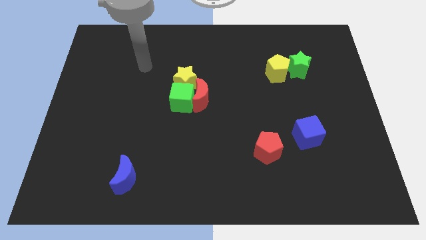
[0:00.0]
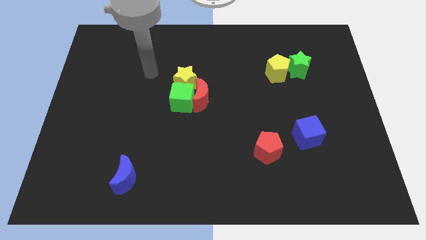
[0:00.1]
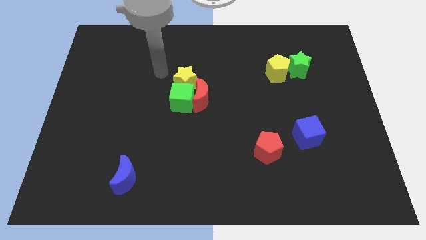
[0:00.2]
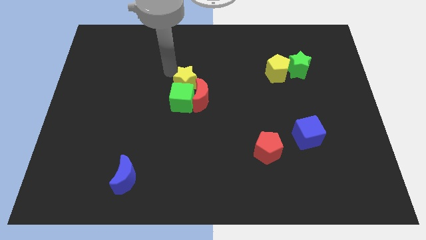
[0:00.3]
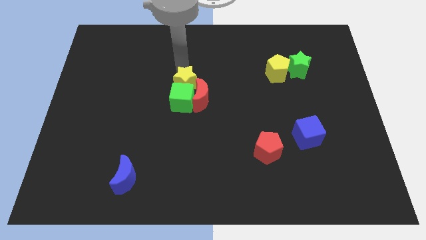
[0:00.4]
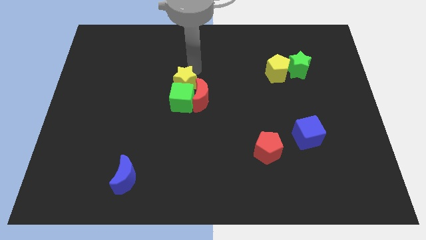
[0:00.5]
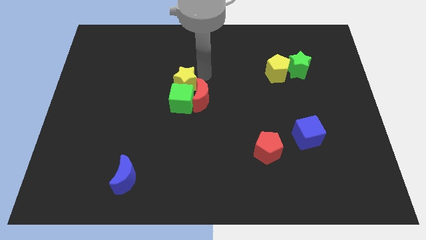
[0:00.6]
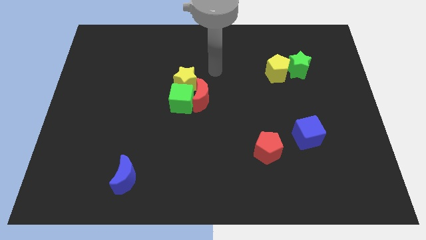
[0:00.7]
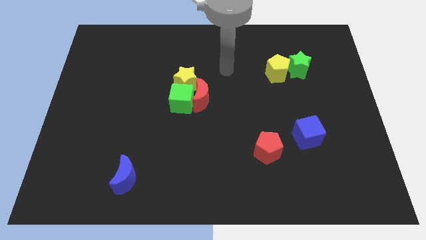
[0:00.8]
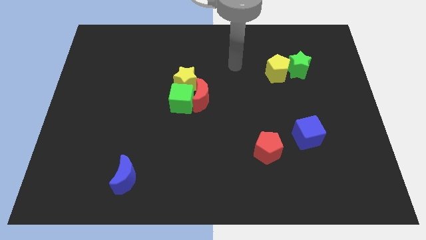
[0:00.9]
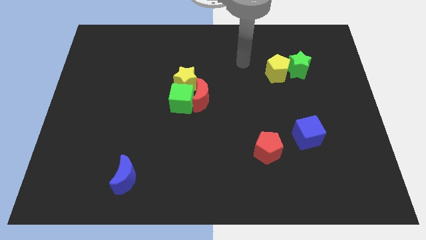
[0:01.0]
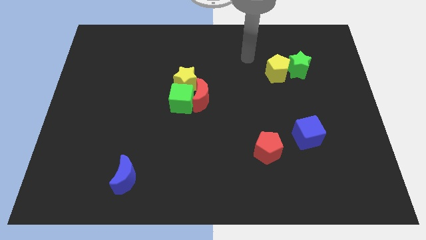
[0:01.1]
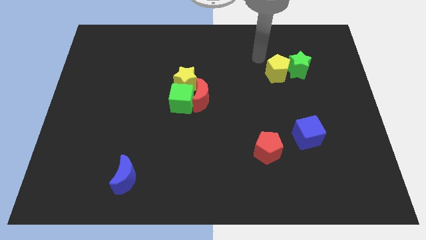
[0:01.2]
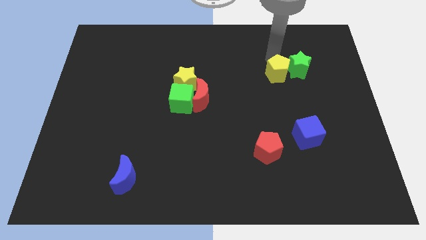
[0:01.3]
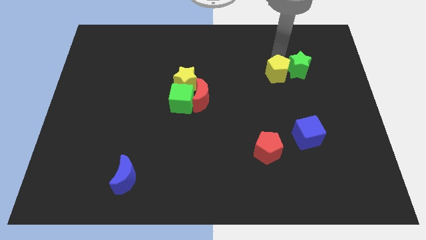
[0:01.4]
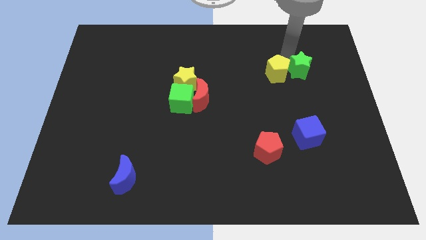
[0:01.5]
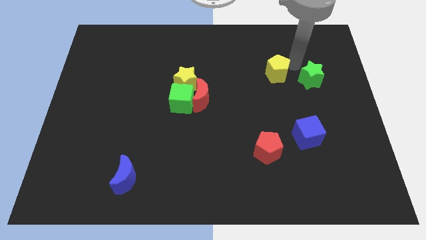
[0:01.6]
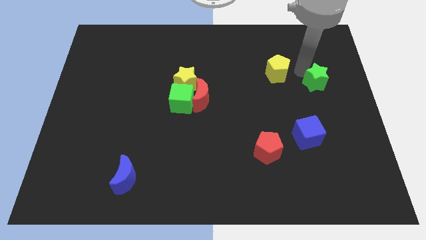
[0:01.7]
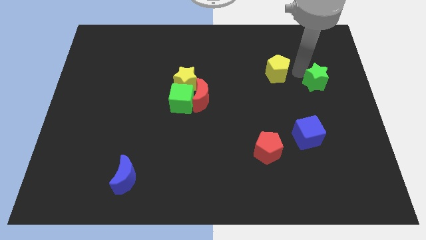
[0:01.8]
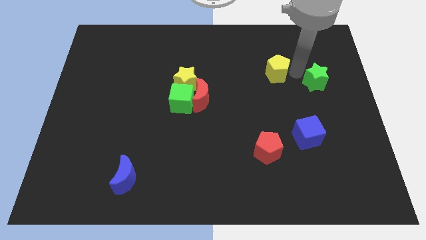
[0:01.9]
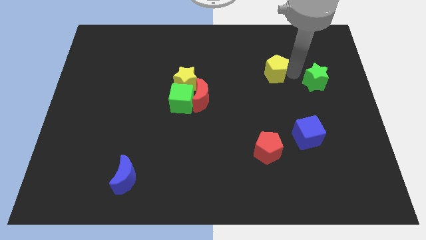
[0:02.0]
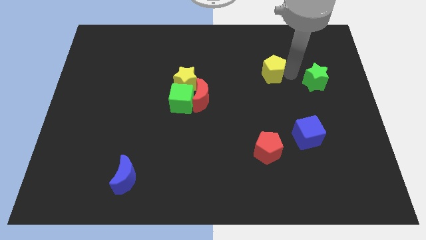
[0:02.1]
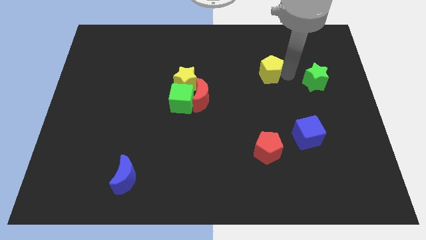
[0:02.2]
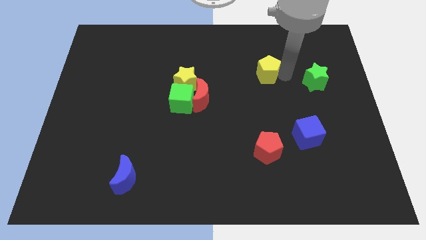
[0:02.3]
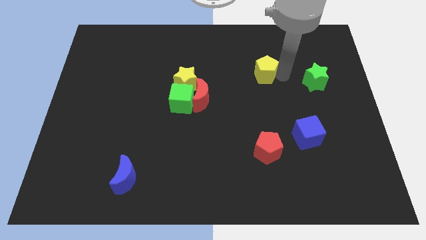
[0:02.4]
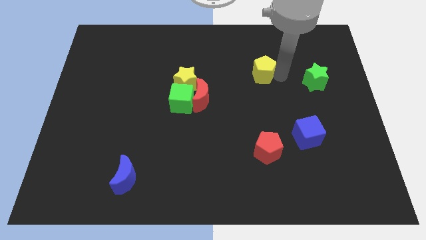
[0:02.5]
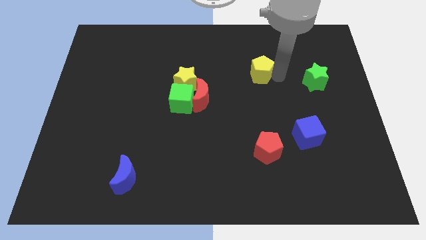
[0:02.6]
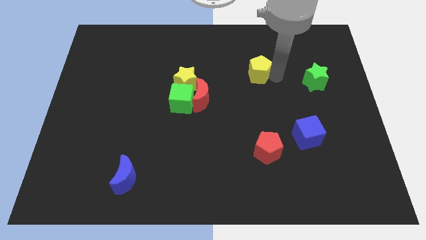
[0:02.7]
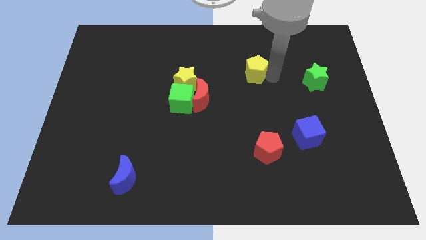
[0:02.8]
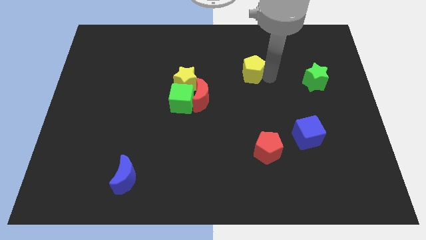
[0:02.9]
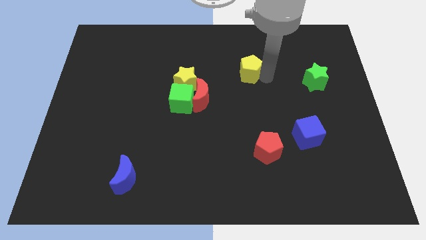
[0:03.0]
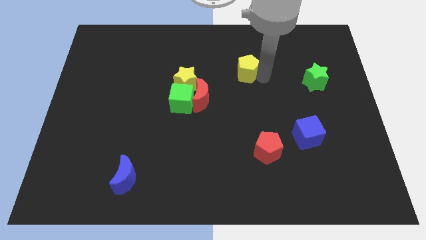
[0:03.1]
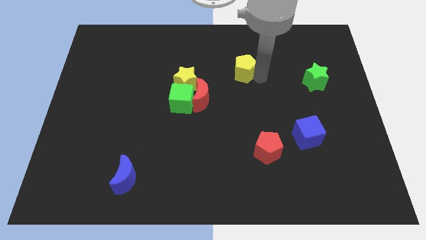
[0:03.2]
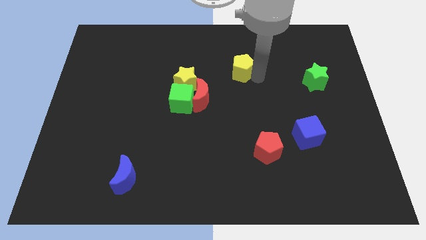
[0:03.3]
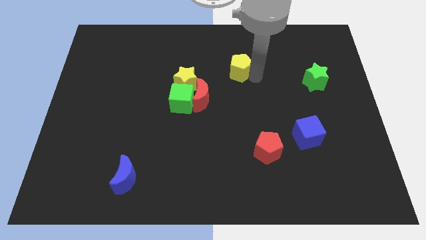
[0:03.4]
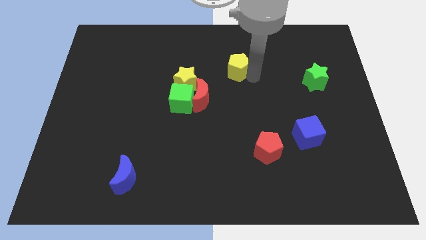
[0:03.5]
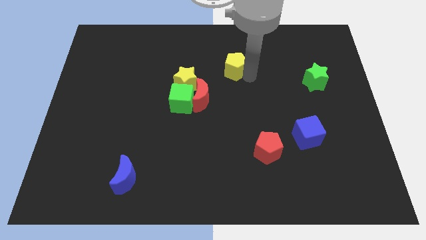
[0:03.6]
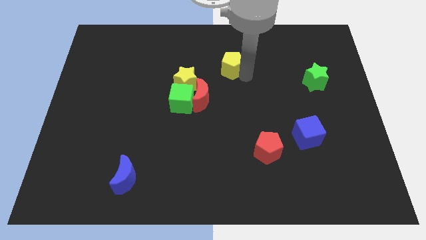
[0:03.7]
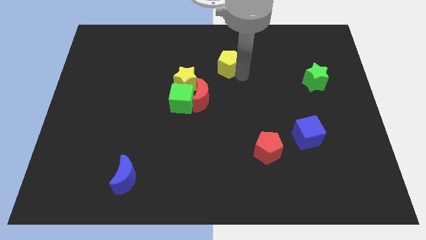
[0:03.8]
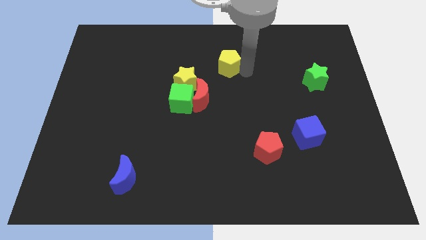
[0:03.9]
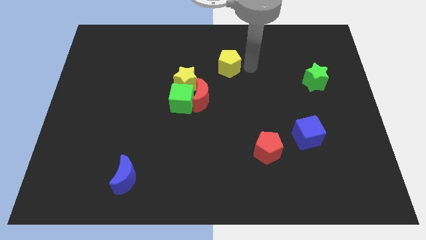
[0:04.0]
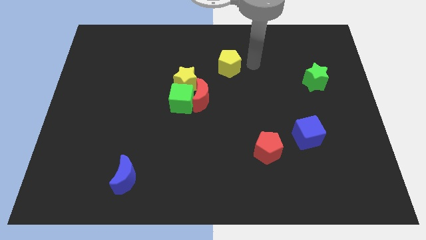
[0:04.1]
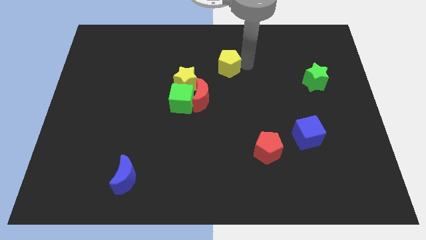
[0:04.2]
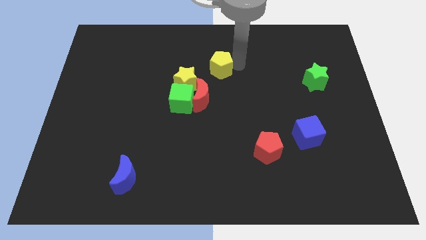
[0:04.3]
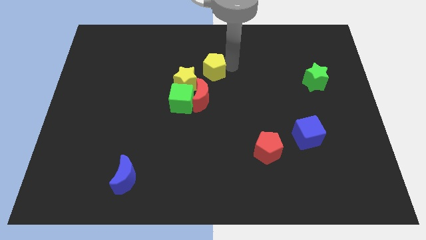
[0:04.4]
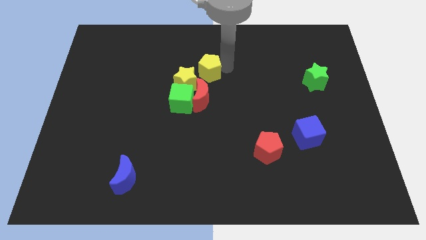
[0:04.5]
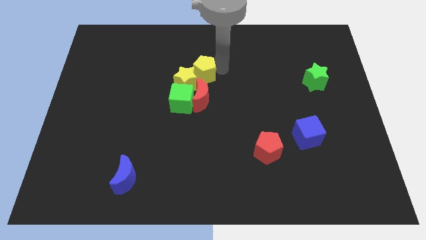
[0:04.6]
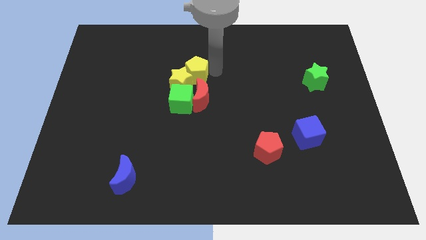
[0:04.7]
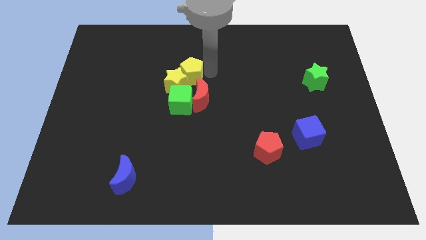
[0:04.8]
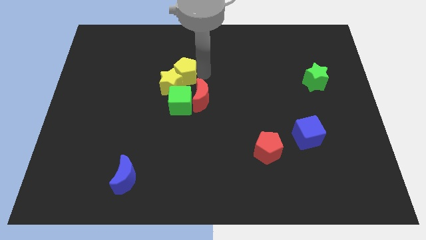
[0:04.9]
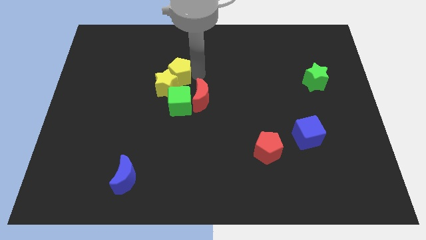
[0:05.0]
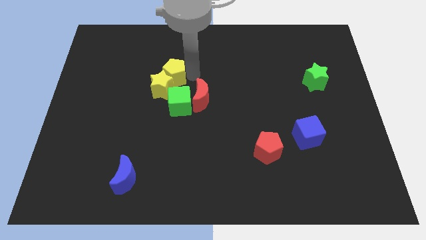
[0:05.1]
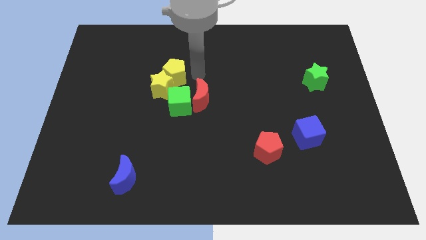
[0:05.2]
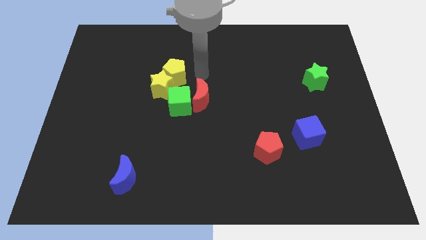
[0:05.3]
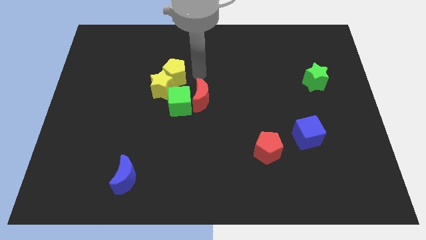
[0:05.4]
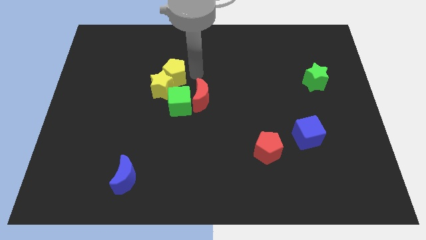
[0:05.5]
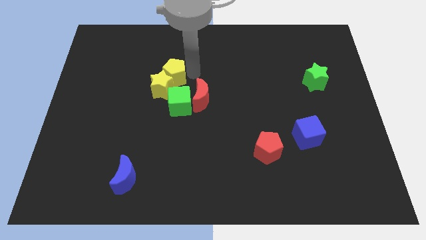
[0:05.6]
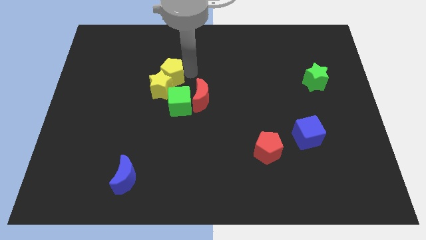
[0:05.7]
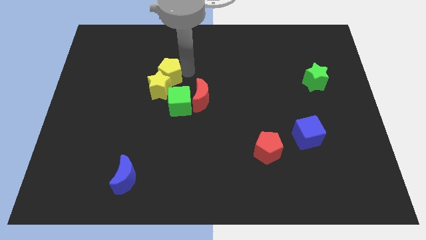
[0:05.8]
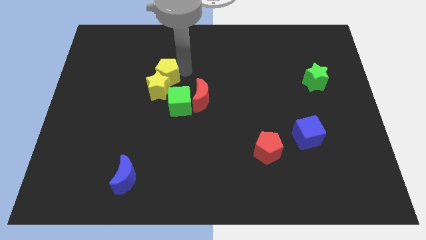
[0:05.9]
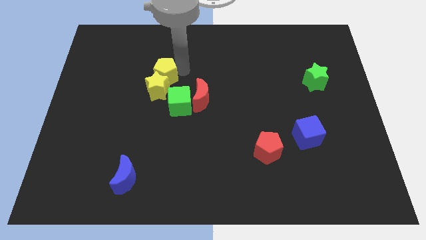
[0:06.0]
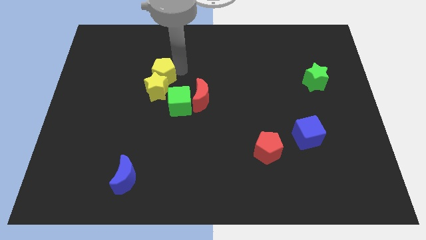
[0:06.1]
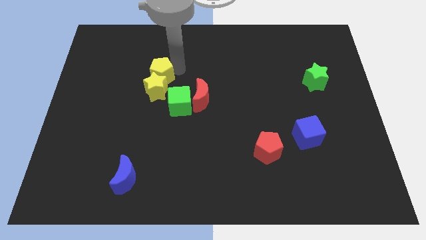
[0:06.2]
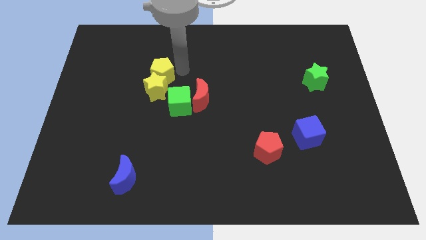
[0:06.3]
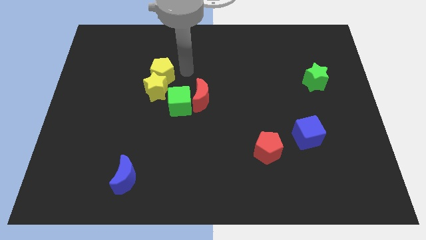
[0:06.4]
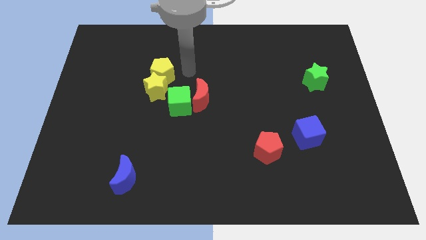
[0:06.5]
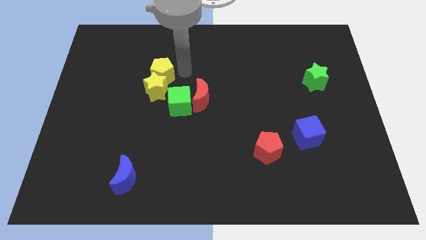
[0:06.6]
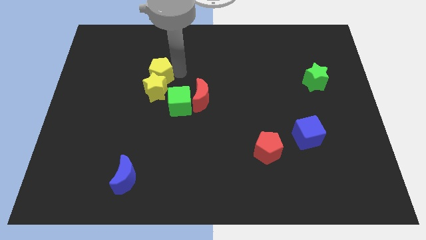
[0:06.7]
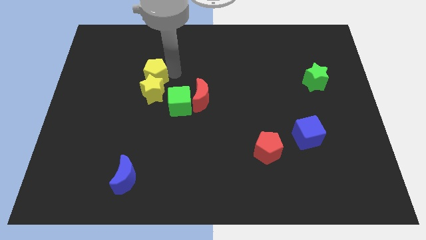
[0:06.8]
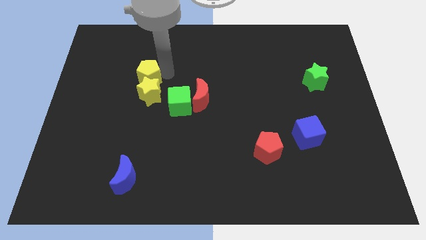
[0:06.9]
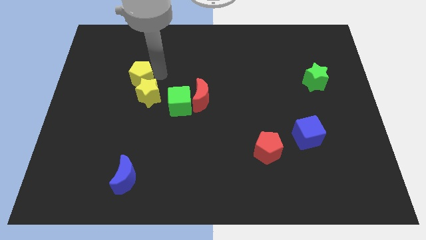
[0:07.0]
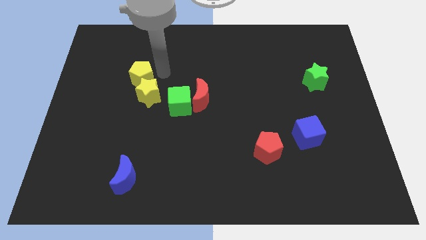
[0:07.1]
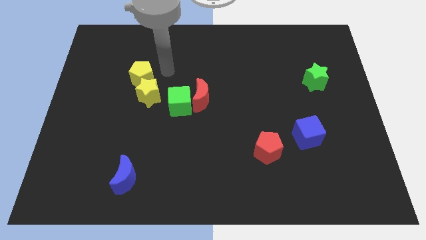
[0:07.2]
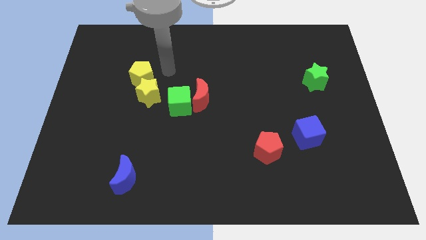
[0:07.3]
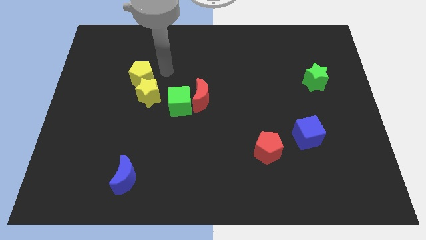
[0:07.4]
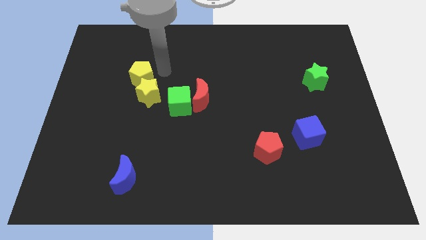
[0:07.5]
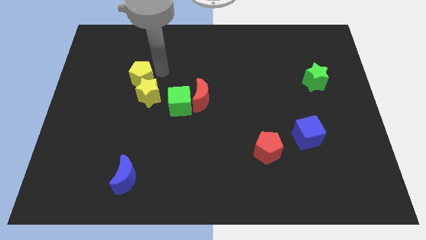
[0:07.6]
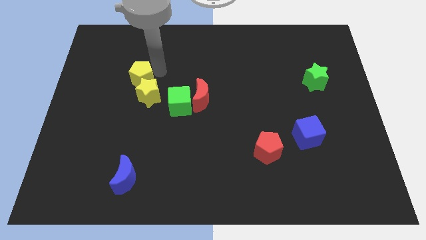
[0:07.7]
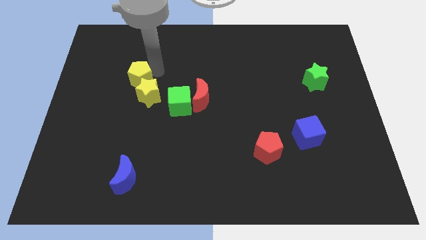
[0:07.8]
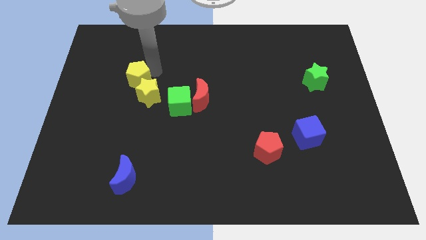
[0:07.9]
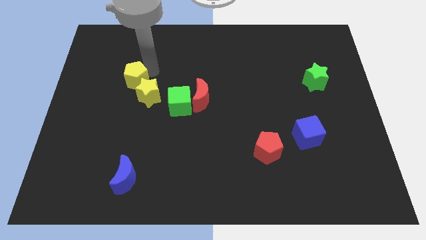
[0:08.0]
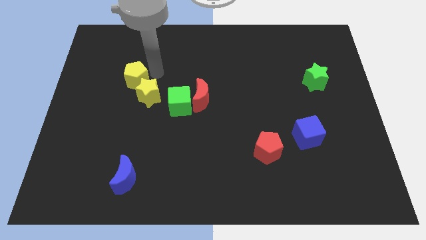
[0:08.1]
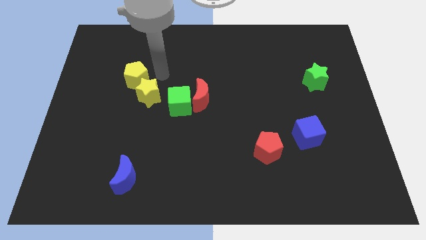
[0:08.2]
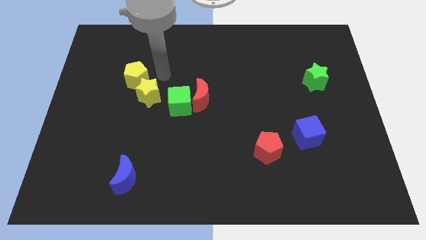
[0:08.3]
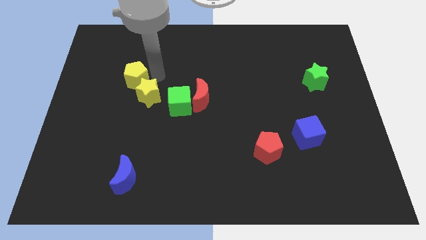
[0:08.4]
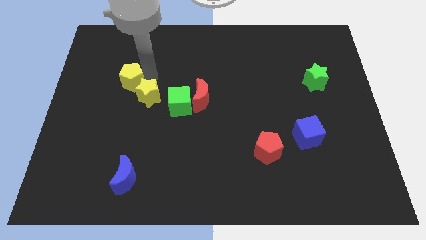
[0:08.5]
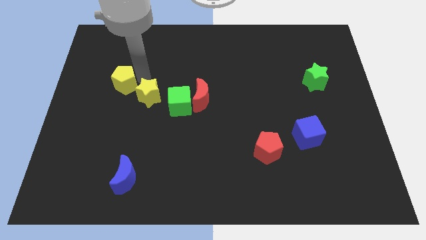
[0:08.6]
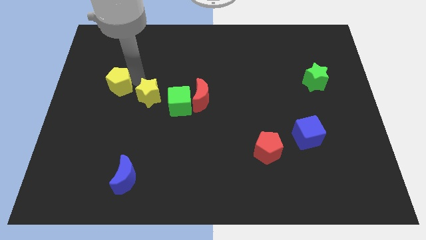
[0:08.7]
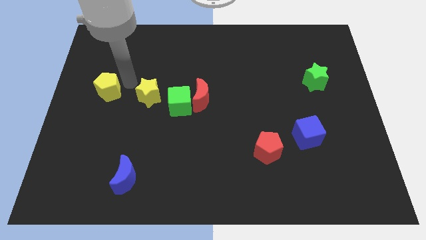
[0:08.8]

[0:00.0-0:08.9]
put the yellow pentagon to the left side
